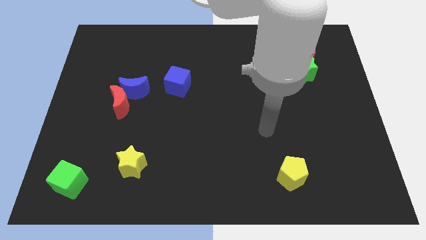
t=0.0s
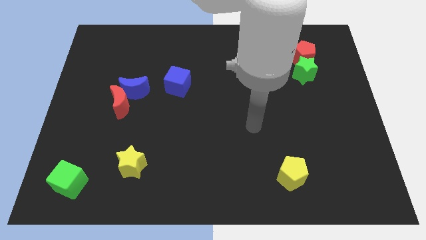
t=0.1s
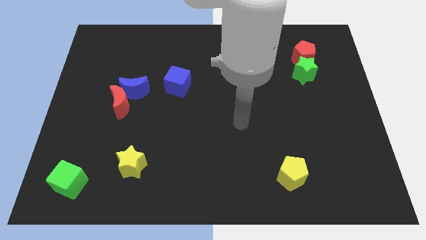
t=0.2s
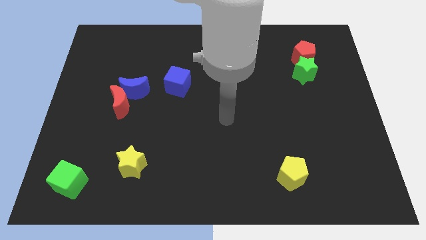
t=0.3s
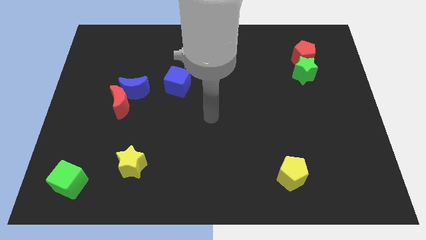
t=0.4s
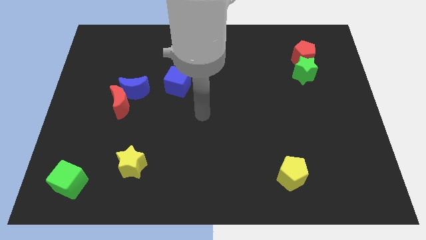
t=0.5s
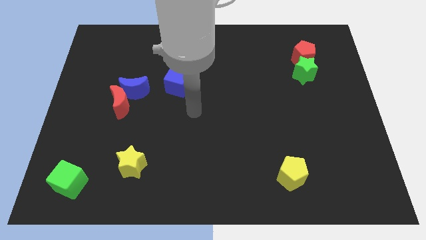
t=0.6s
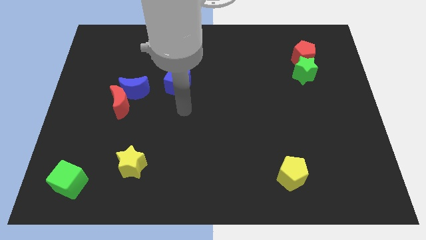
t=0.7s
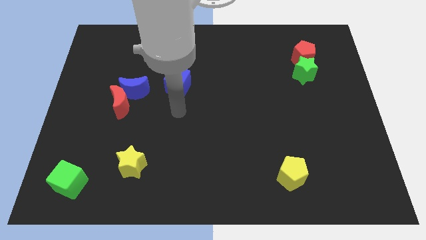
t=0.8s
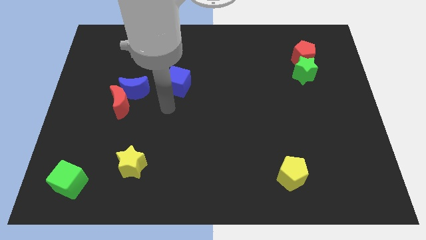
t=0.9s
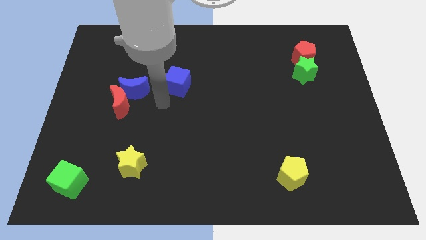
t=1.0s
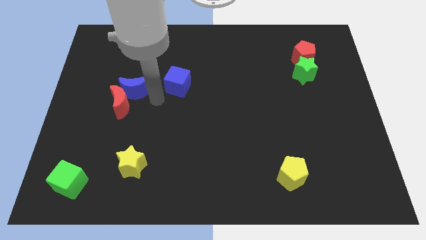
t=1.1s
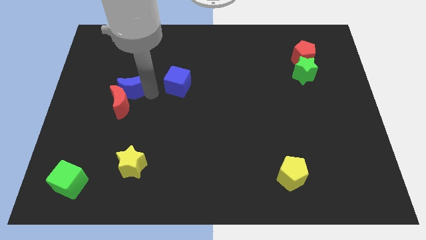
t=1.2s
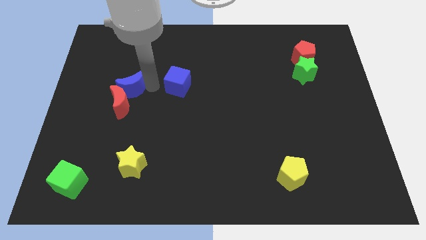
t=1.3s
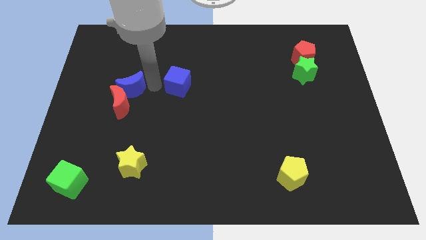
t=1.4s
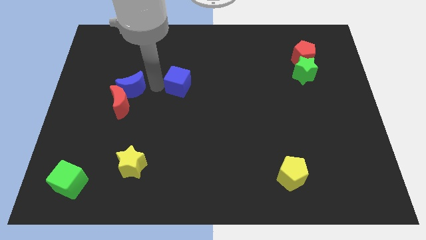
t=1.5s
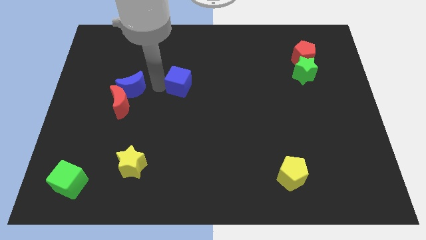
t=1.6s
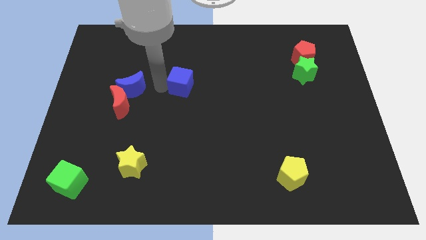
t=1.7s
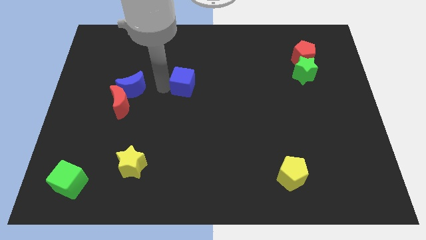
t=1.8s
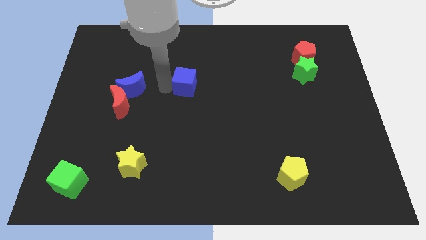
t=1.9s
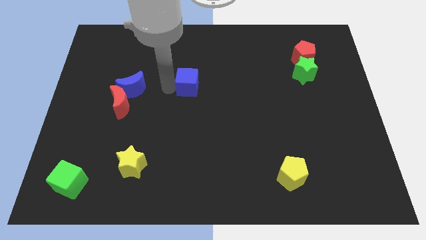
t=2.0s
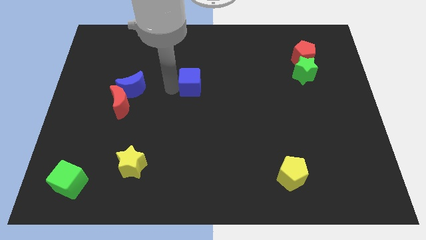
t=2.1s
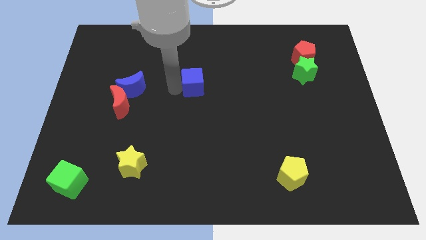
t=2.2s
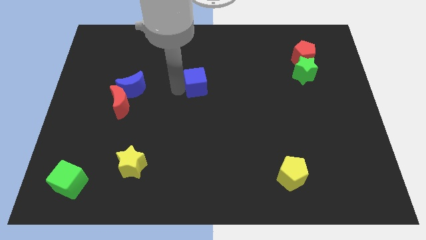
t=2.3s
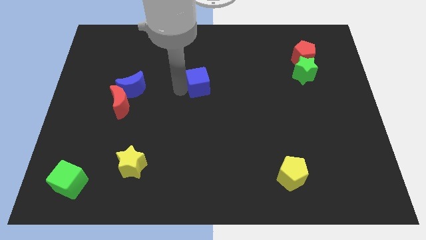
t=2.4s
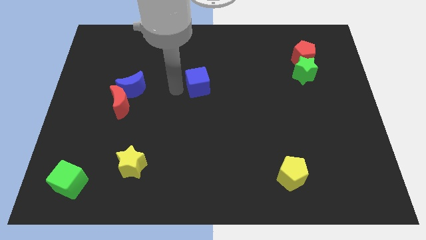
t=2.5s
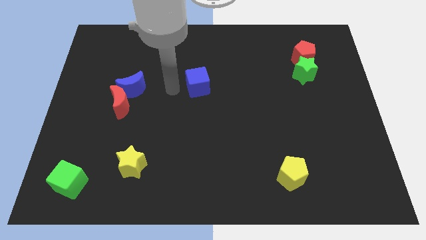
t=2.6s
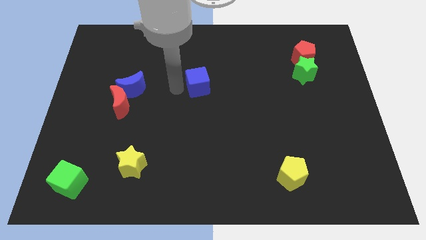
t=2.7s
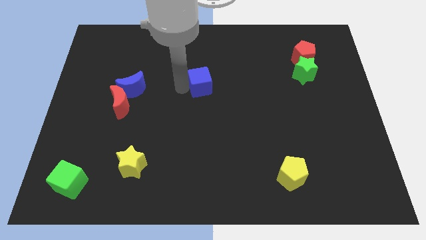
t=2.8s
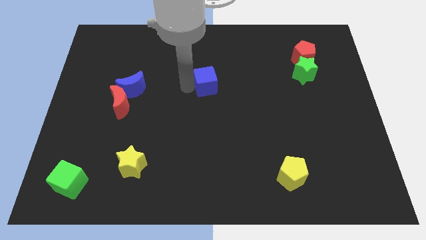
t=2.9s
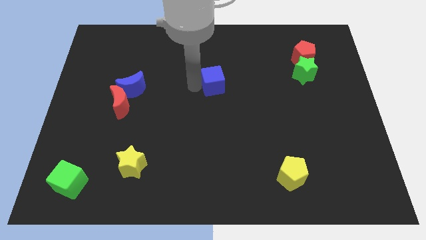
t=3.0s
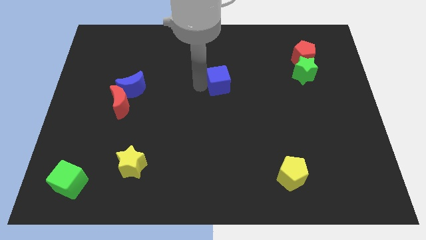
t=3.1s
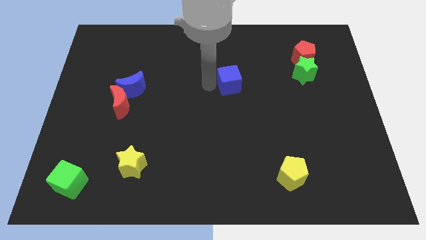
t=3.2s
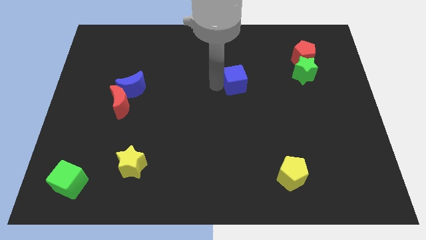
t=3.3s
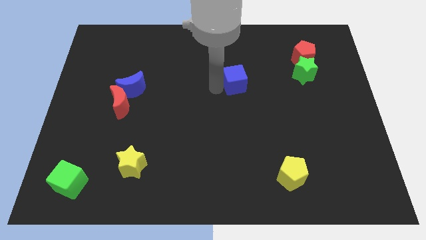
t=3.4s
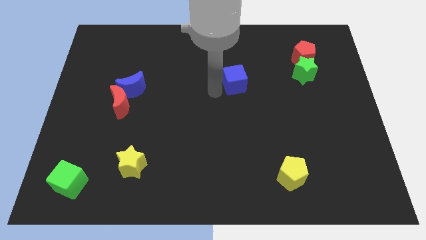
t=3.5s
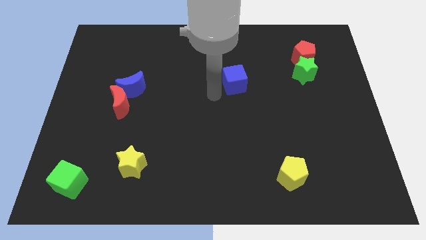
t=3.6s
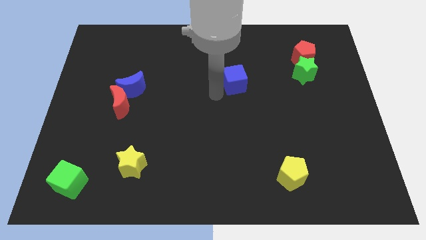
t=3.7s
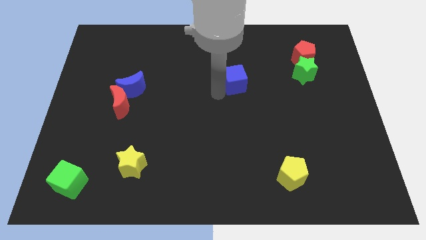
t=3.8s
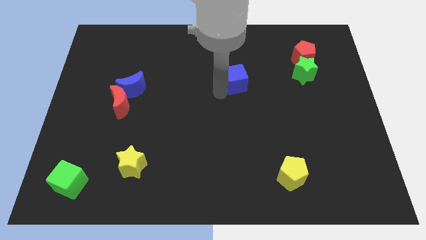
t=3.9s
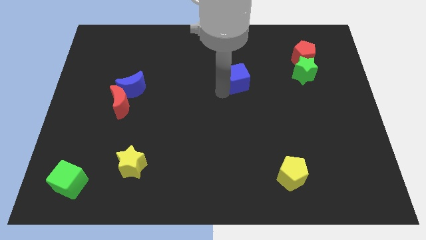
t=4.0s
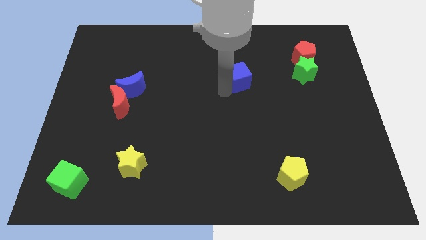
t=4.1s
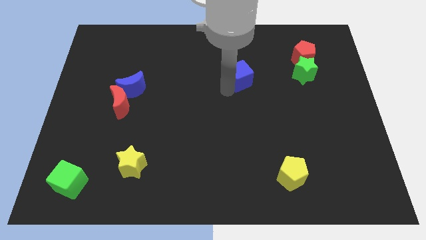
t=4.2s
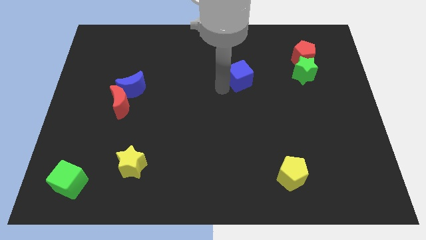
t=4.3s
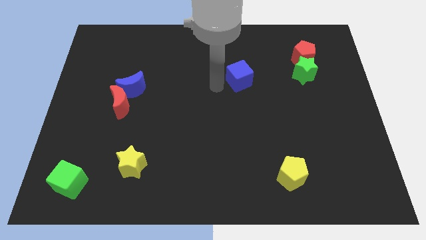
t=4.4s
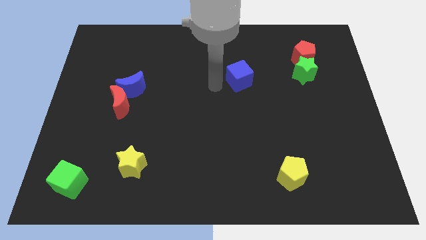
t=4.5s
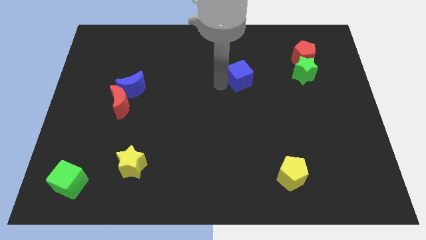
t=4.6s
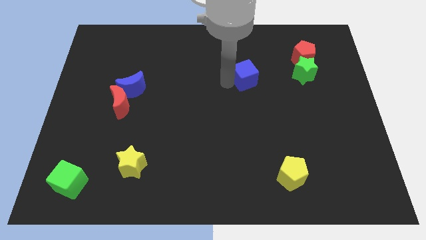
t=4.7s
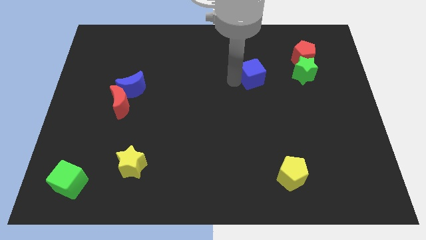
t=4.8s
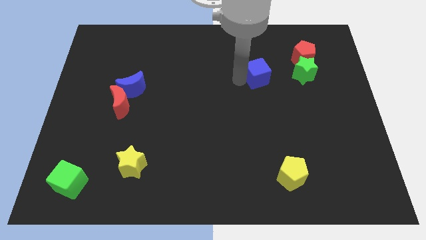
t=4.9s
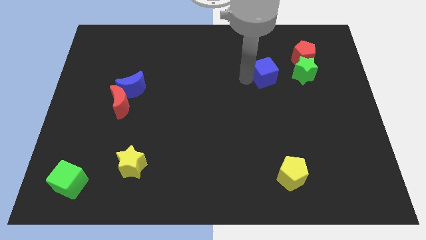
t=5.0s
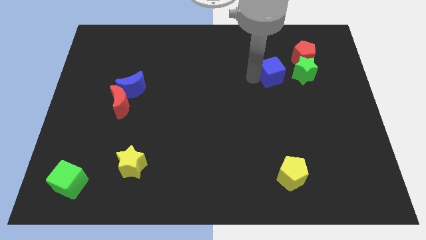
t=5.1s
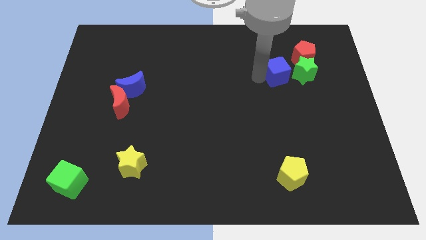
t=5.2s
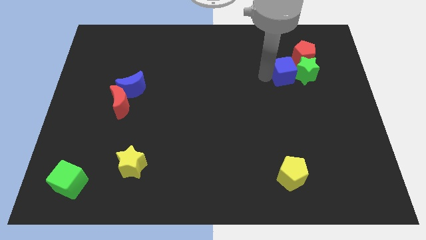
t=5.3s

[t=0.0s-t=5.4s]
push the blue cube next to the green star

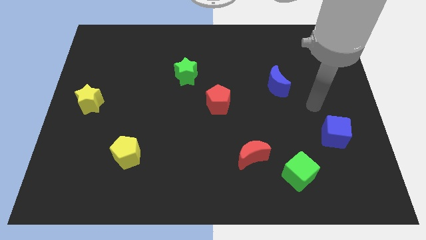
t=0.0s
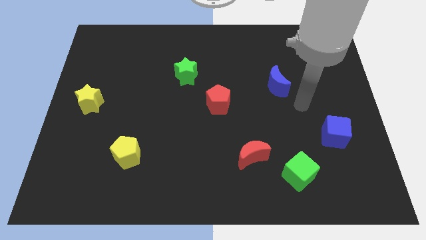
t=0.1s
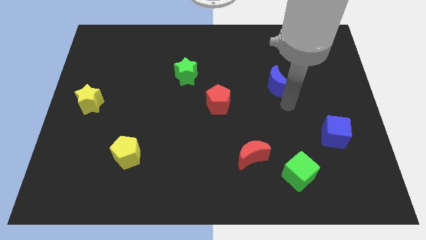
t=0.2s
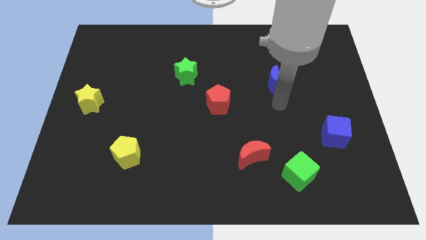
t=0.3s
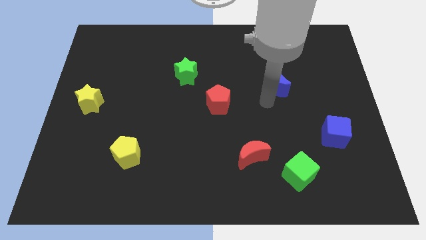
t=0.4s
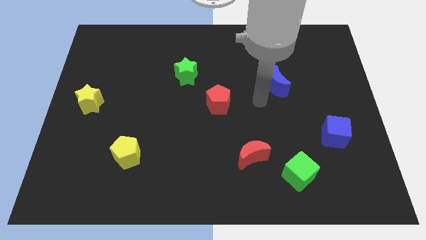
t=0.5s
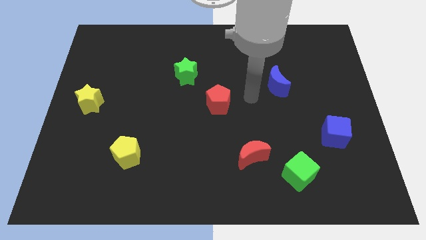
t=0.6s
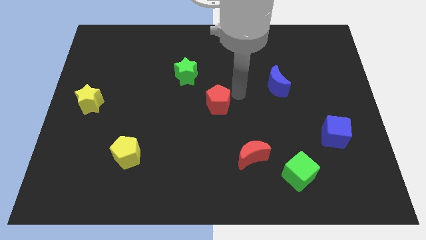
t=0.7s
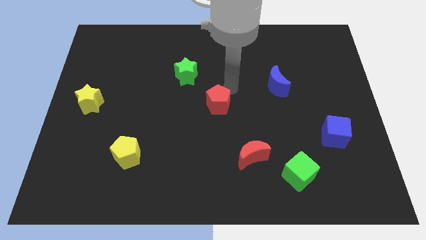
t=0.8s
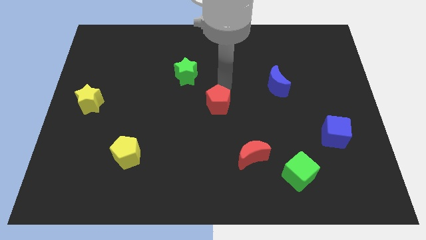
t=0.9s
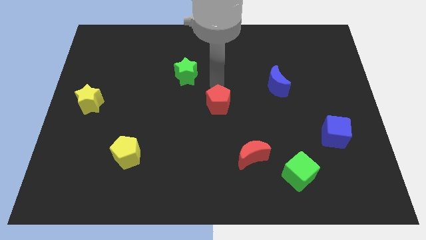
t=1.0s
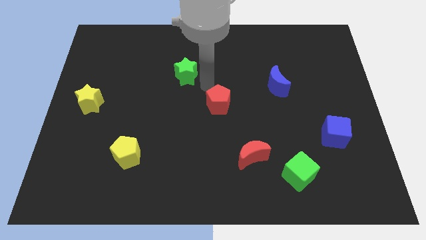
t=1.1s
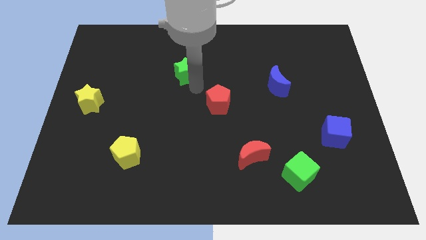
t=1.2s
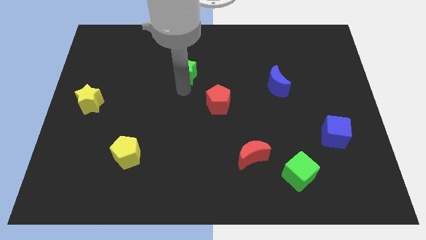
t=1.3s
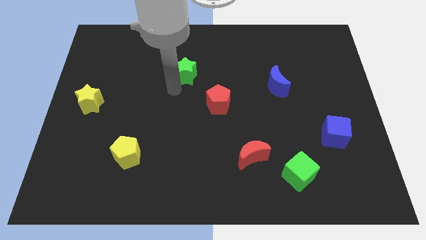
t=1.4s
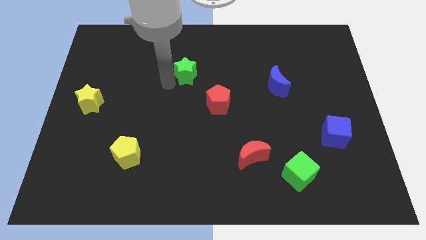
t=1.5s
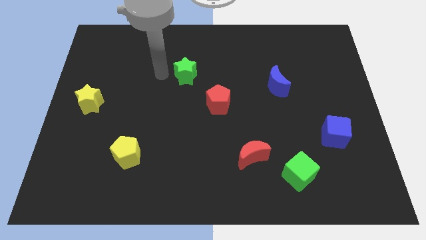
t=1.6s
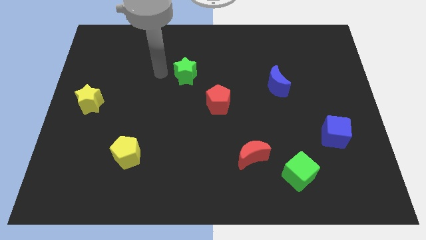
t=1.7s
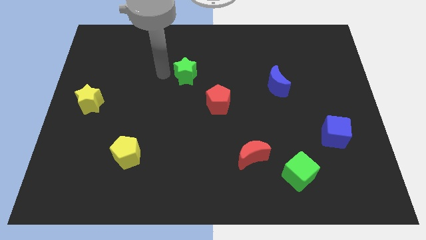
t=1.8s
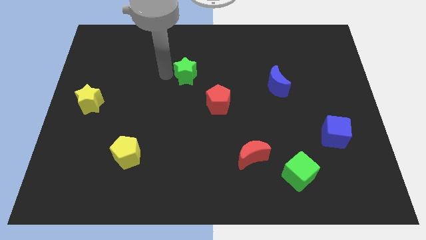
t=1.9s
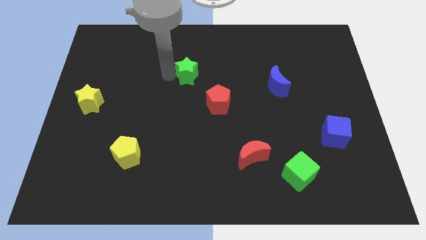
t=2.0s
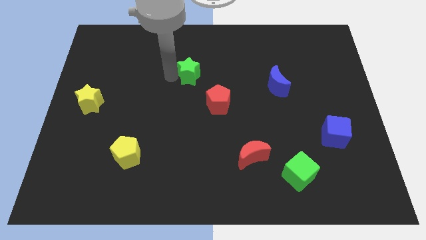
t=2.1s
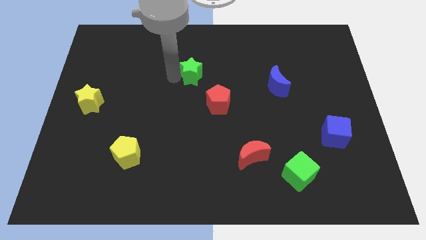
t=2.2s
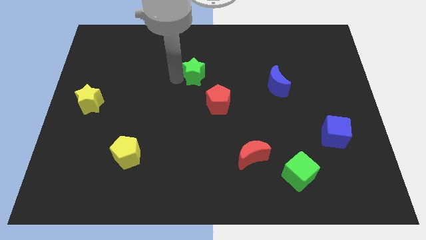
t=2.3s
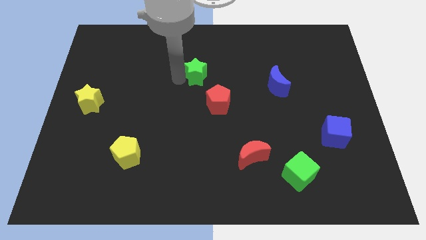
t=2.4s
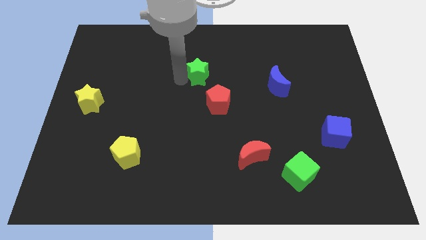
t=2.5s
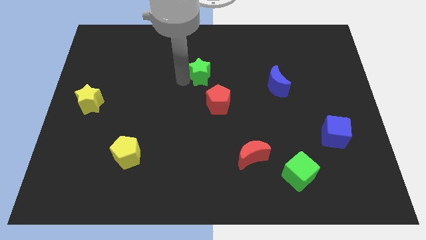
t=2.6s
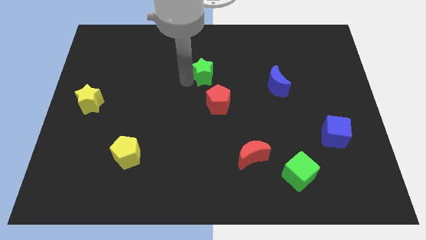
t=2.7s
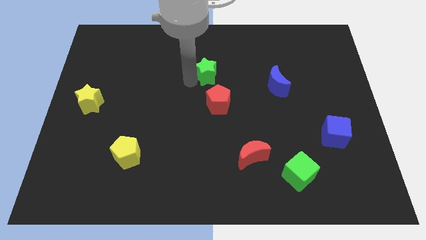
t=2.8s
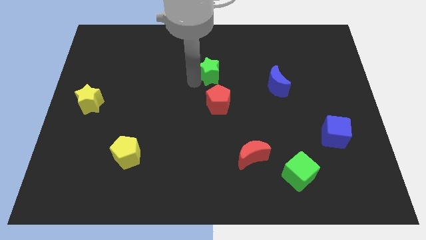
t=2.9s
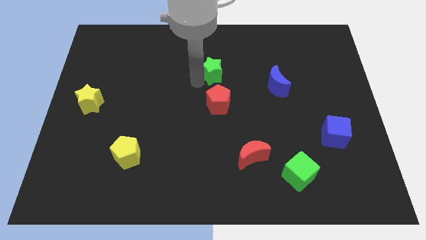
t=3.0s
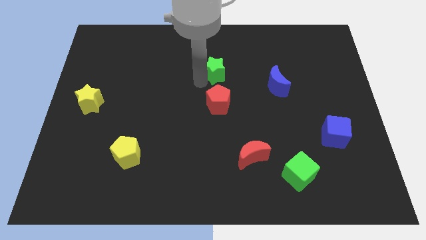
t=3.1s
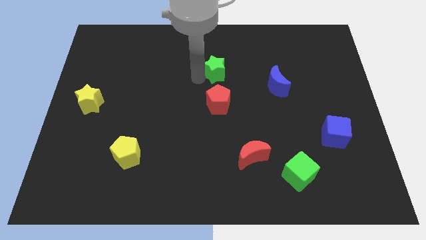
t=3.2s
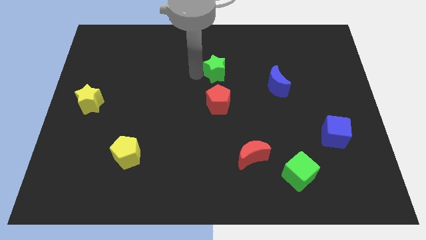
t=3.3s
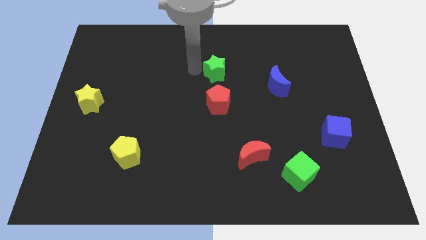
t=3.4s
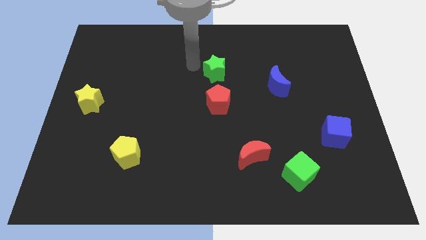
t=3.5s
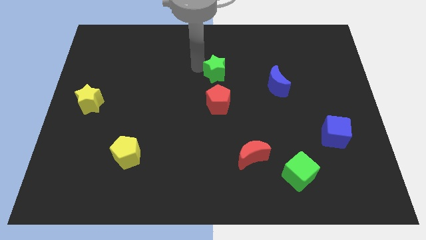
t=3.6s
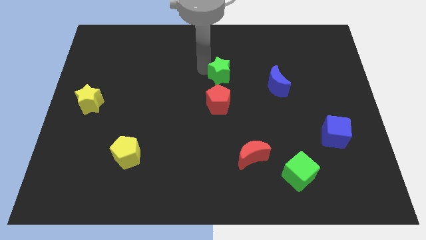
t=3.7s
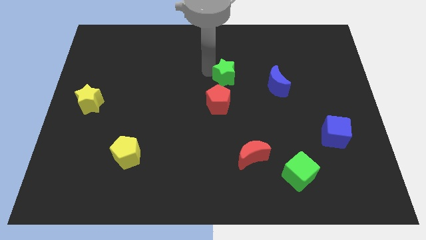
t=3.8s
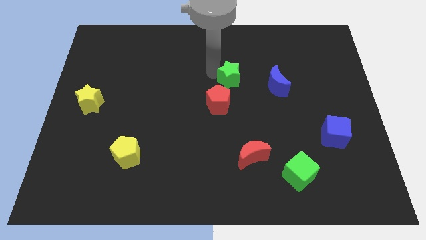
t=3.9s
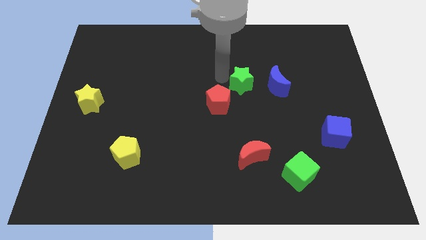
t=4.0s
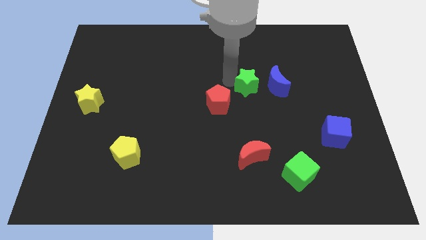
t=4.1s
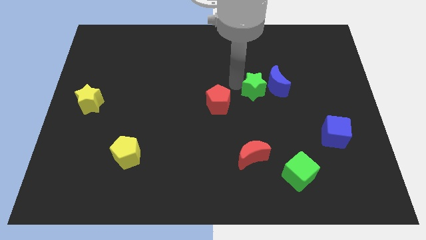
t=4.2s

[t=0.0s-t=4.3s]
push the green star to the blue moon
